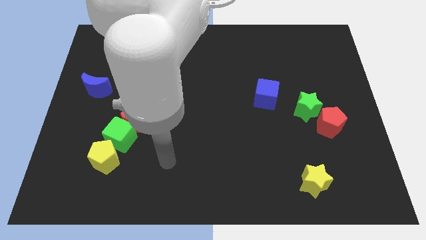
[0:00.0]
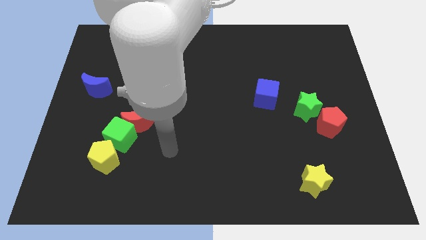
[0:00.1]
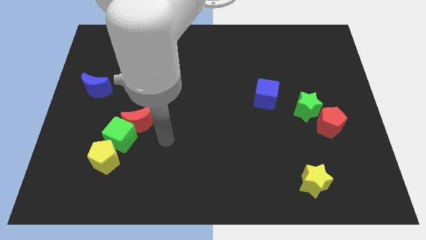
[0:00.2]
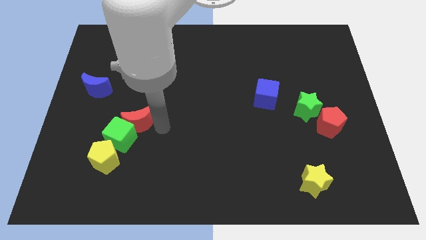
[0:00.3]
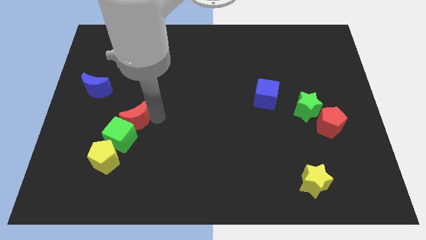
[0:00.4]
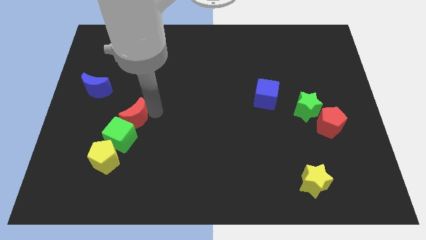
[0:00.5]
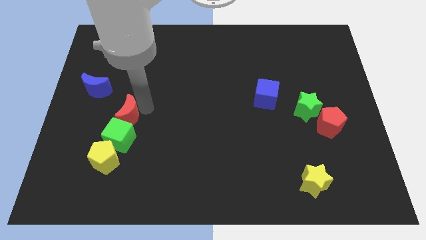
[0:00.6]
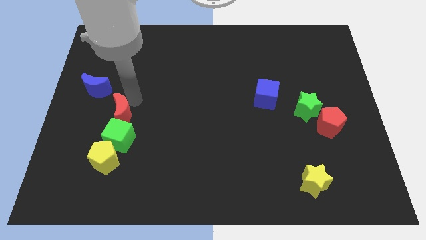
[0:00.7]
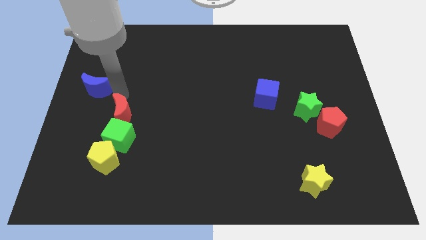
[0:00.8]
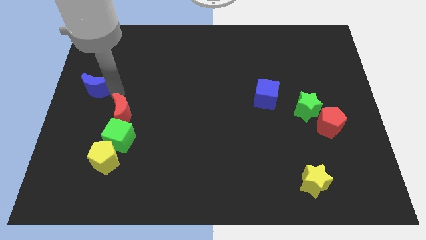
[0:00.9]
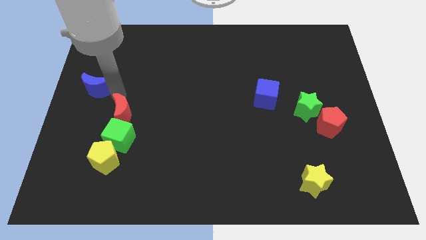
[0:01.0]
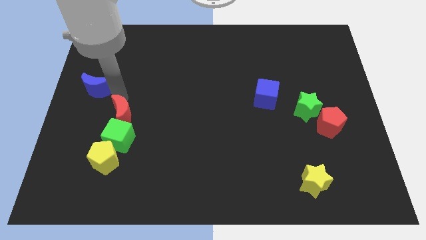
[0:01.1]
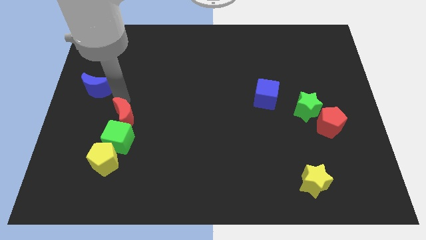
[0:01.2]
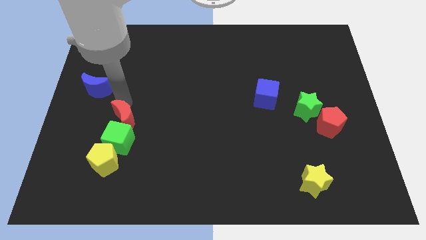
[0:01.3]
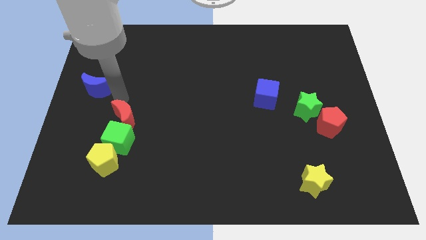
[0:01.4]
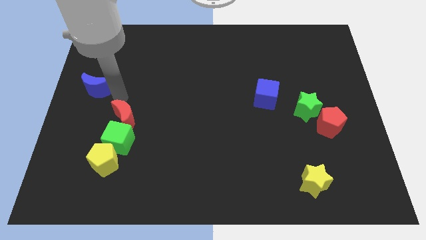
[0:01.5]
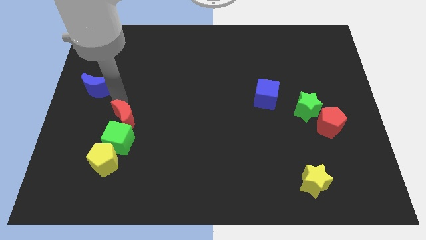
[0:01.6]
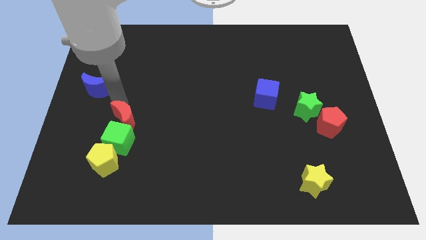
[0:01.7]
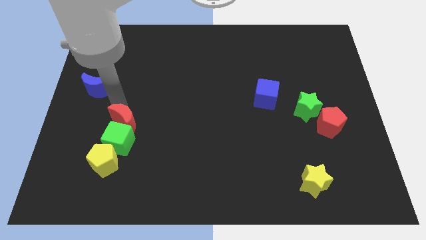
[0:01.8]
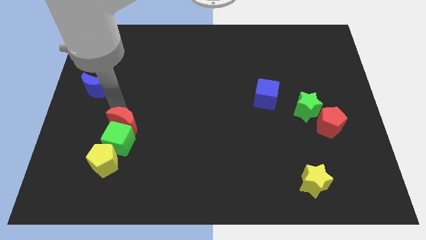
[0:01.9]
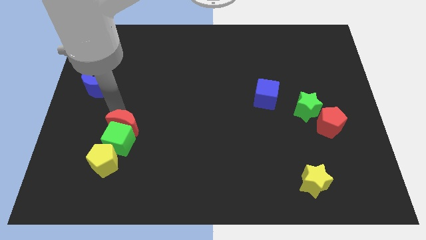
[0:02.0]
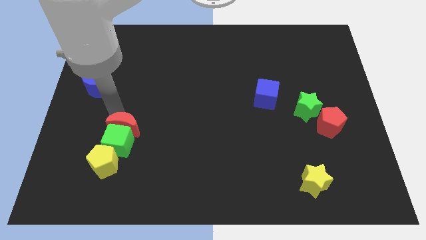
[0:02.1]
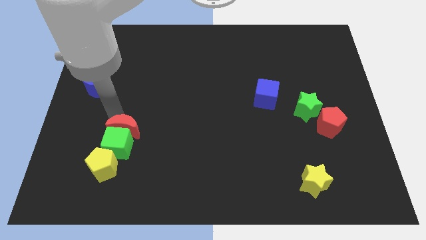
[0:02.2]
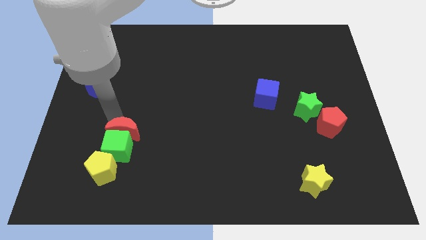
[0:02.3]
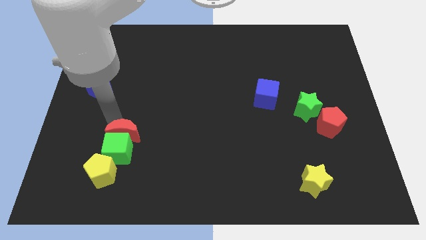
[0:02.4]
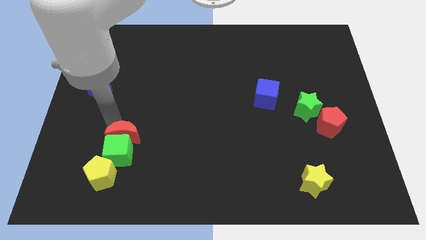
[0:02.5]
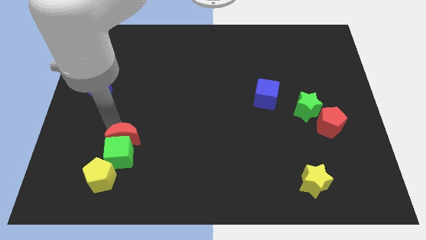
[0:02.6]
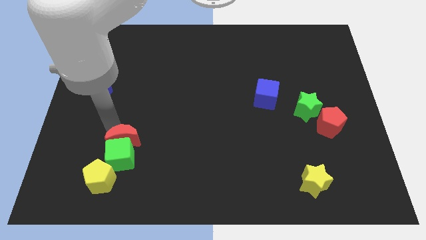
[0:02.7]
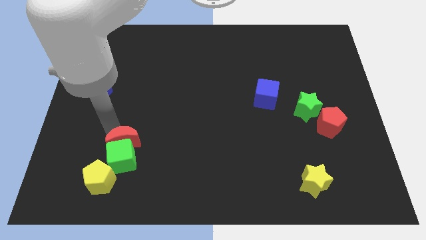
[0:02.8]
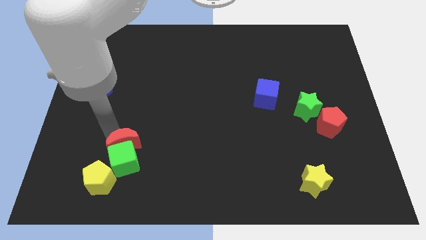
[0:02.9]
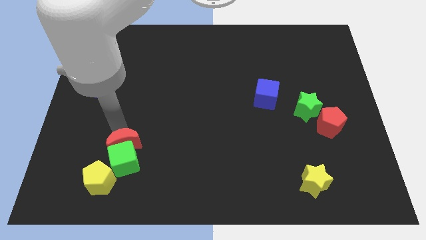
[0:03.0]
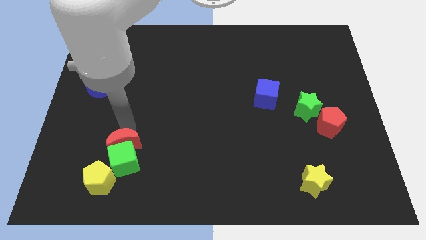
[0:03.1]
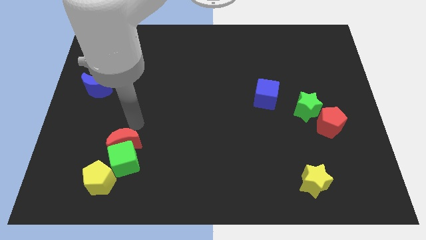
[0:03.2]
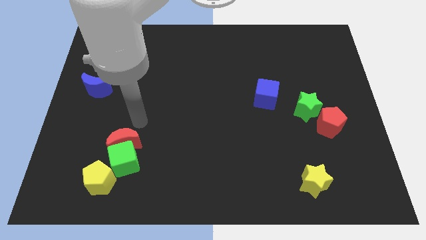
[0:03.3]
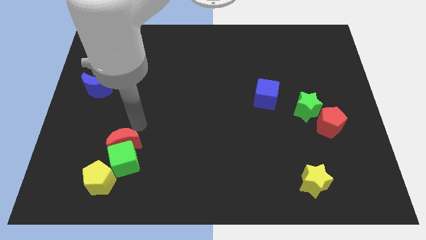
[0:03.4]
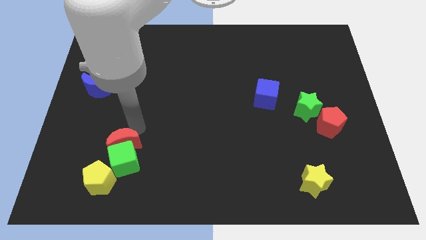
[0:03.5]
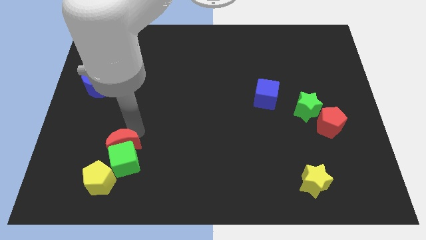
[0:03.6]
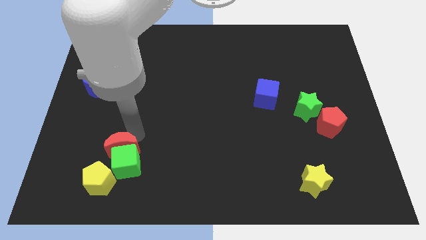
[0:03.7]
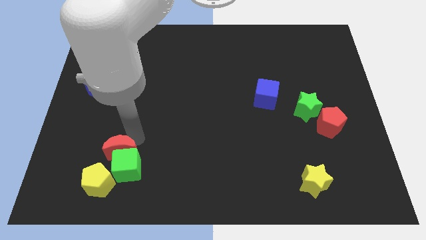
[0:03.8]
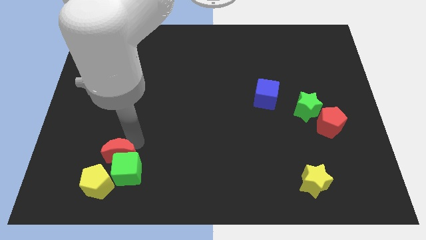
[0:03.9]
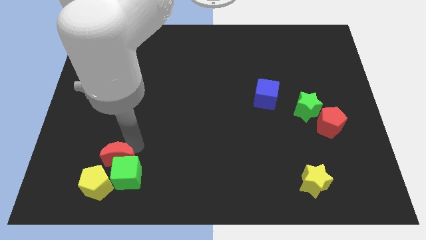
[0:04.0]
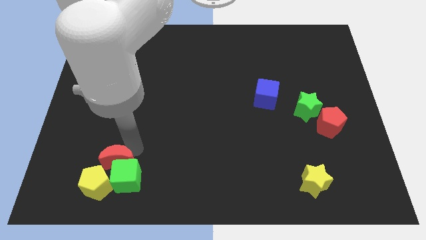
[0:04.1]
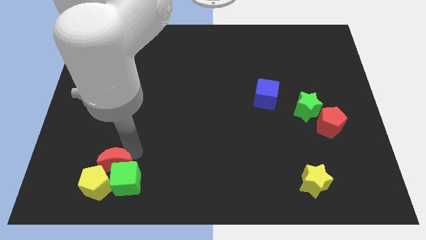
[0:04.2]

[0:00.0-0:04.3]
slide the red moon to the yellow pentagon

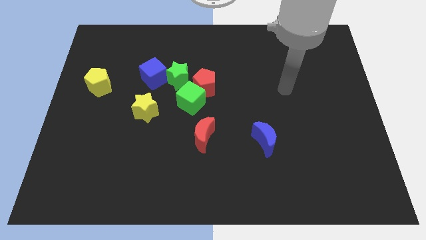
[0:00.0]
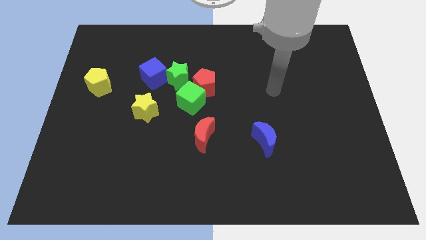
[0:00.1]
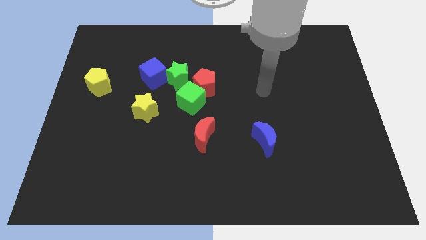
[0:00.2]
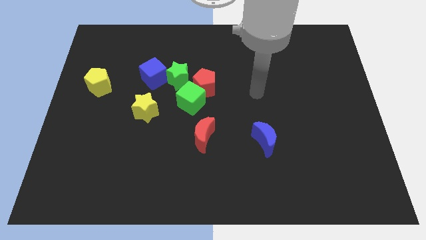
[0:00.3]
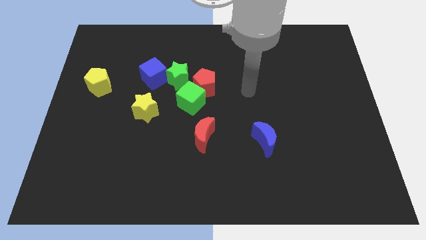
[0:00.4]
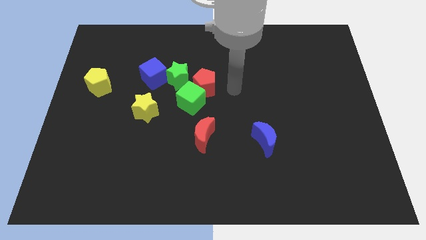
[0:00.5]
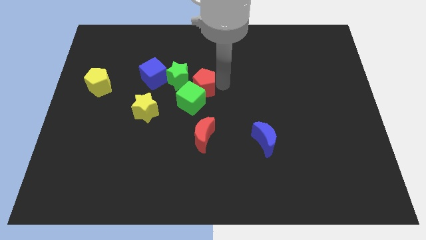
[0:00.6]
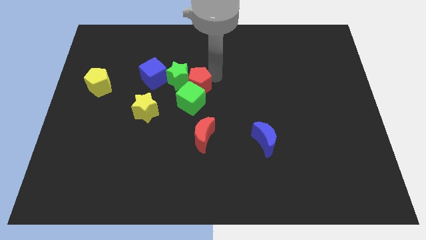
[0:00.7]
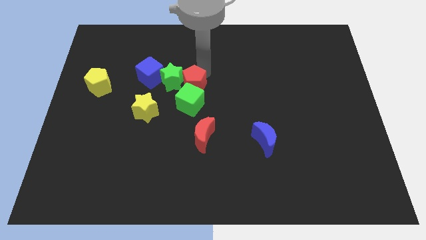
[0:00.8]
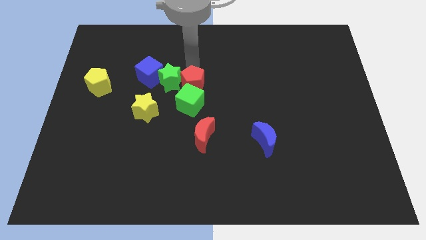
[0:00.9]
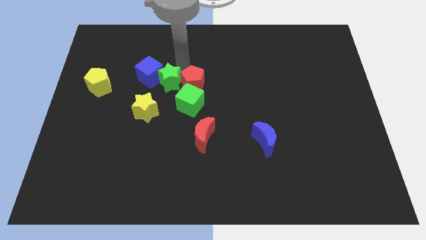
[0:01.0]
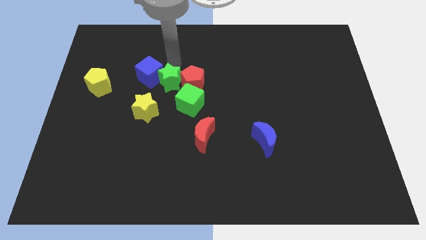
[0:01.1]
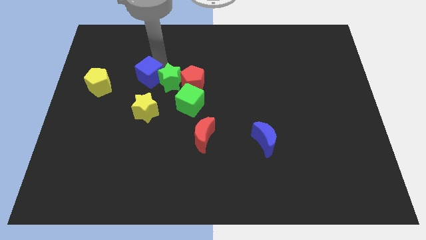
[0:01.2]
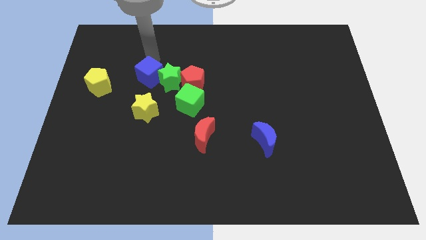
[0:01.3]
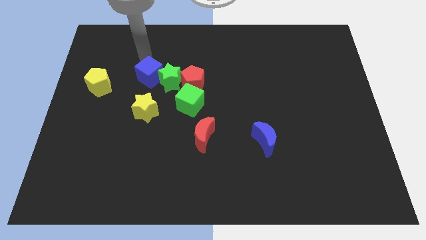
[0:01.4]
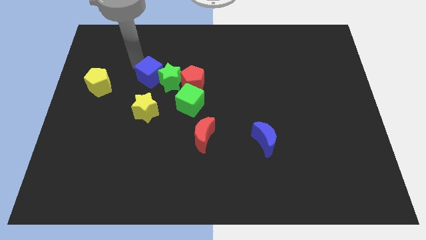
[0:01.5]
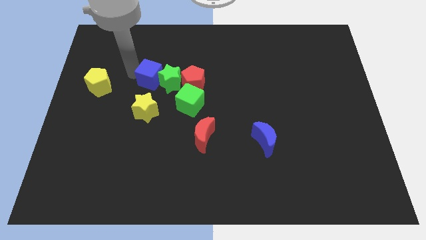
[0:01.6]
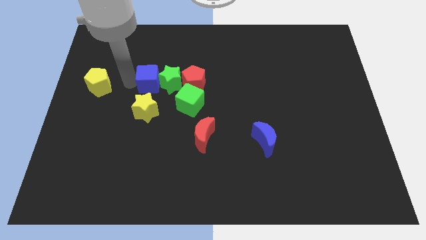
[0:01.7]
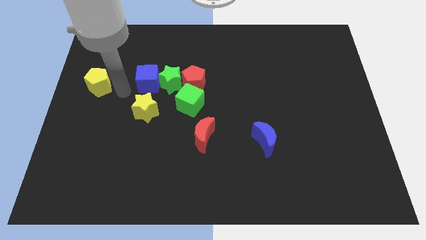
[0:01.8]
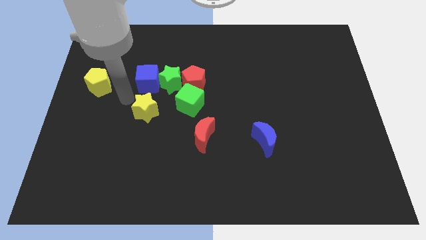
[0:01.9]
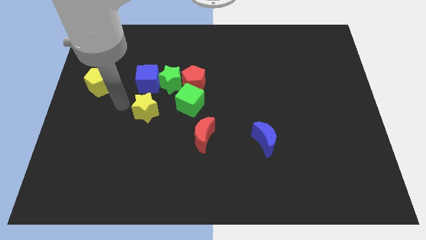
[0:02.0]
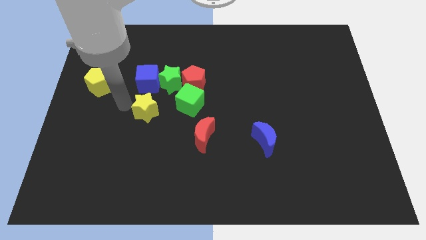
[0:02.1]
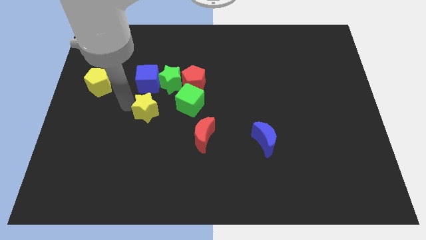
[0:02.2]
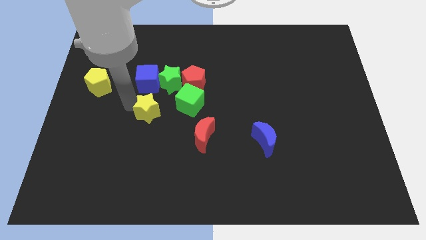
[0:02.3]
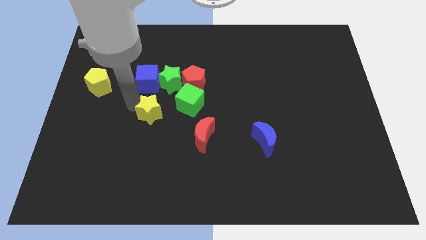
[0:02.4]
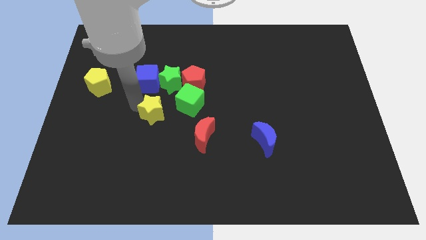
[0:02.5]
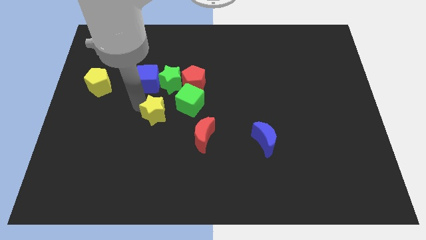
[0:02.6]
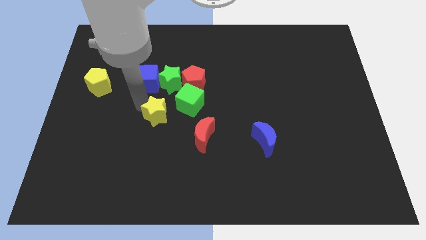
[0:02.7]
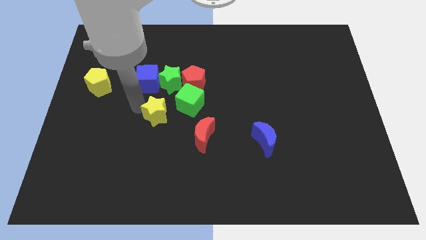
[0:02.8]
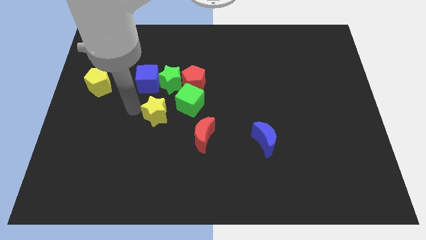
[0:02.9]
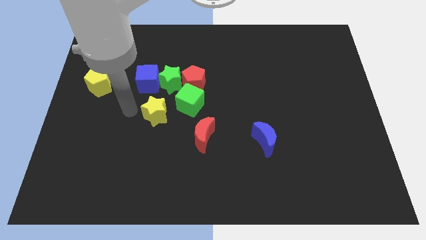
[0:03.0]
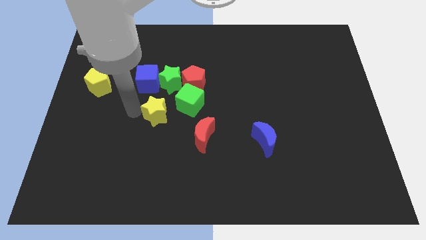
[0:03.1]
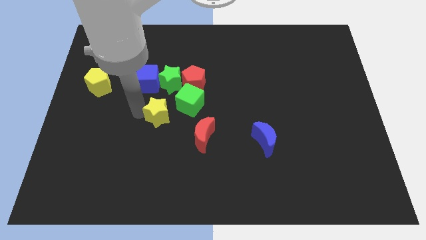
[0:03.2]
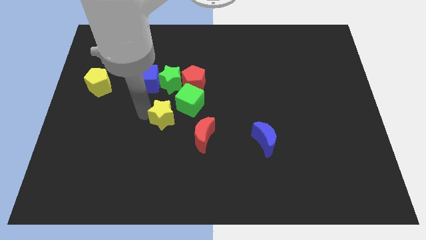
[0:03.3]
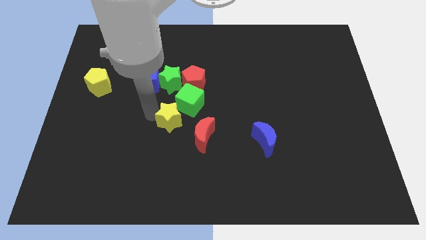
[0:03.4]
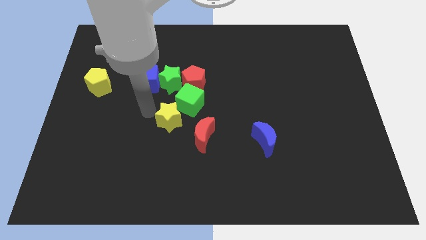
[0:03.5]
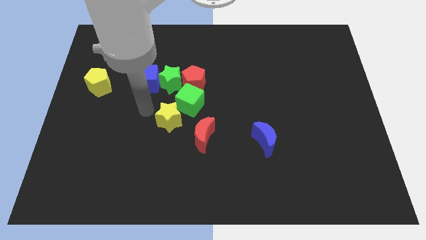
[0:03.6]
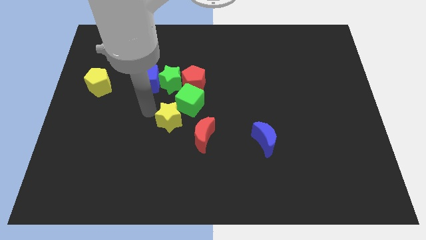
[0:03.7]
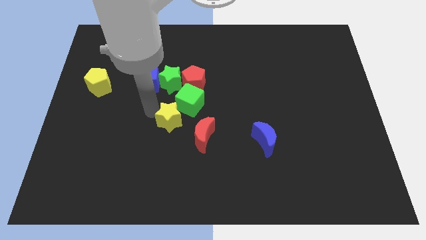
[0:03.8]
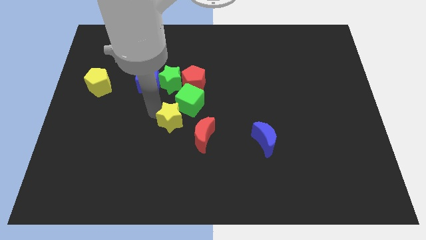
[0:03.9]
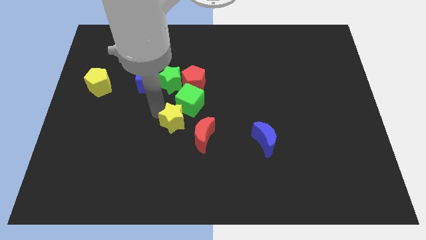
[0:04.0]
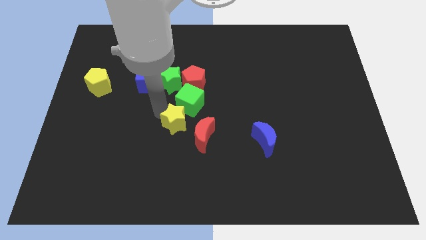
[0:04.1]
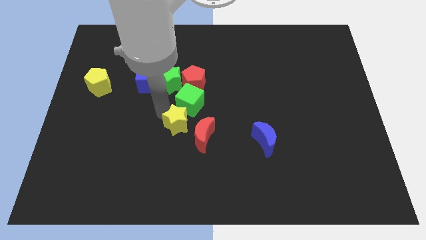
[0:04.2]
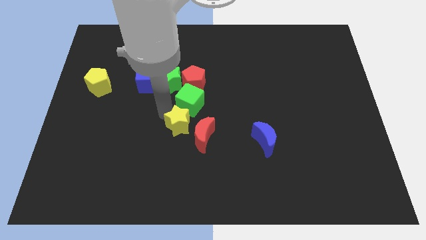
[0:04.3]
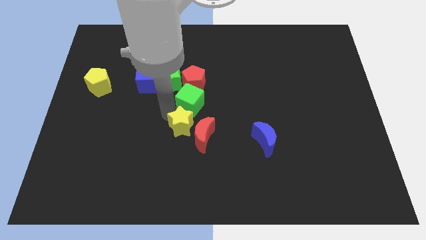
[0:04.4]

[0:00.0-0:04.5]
slide the yellow star towards the red moon
